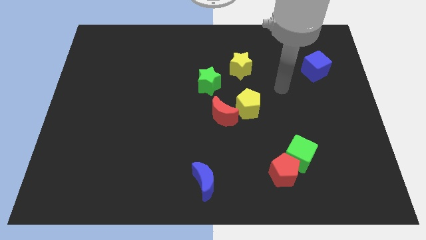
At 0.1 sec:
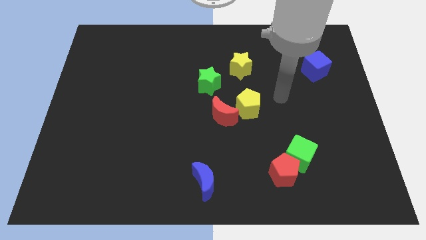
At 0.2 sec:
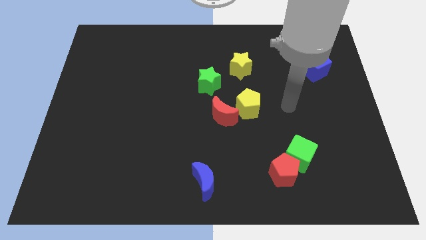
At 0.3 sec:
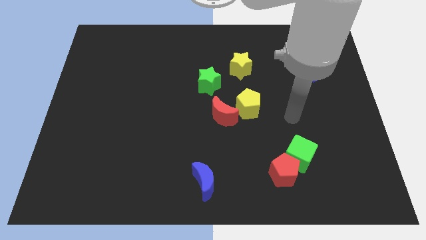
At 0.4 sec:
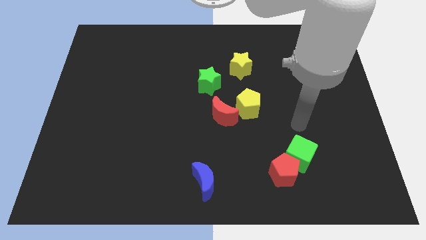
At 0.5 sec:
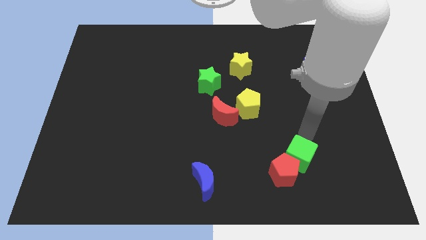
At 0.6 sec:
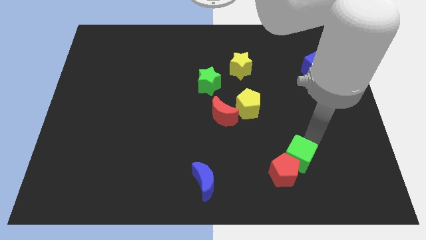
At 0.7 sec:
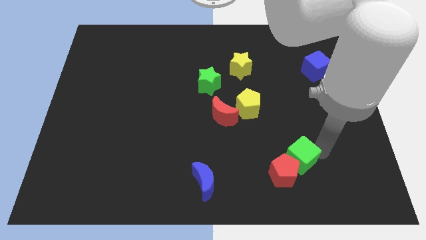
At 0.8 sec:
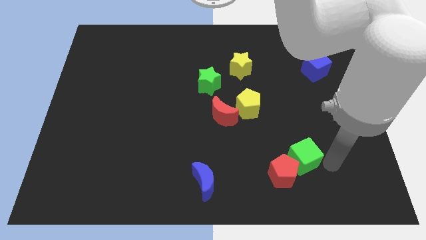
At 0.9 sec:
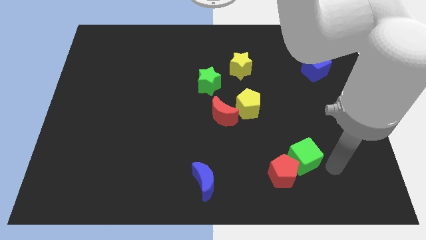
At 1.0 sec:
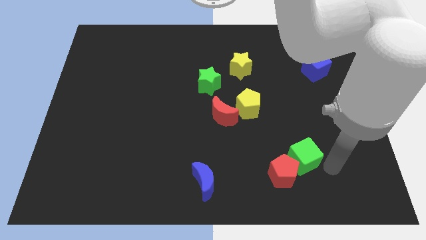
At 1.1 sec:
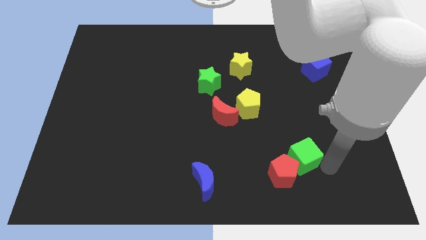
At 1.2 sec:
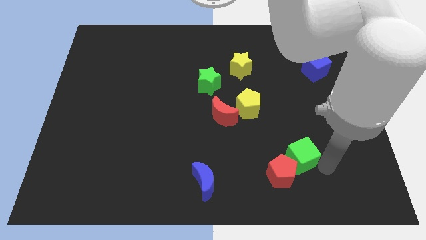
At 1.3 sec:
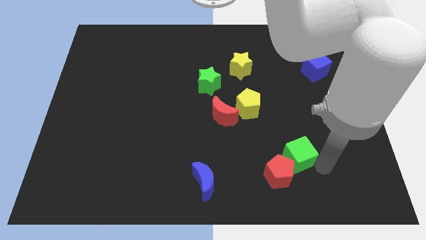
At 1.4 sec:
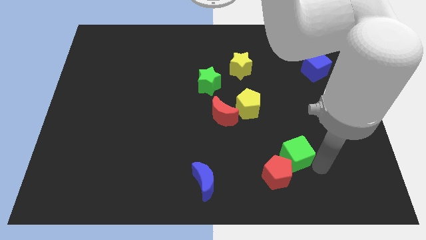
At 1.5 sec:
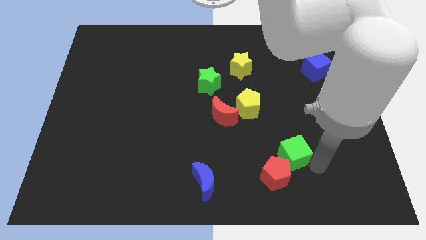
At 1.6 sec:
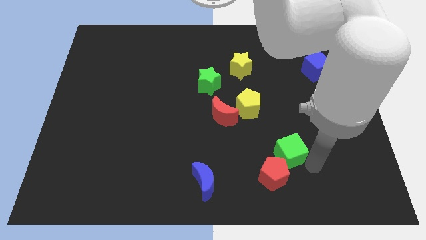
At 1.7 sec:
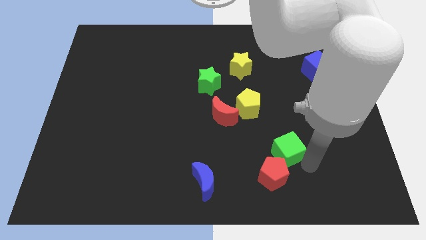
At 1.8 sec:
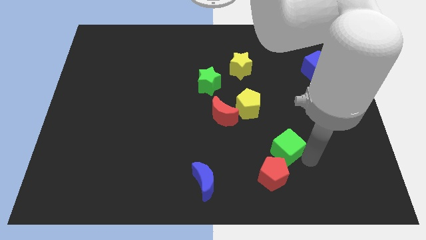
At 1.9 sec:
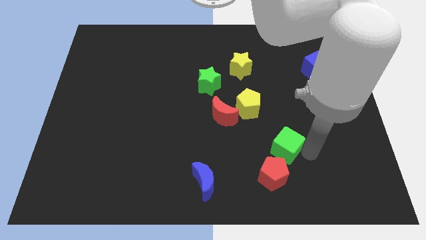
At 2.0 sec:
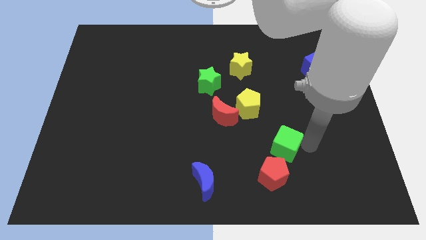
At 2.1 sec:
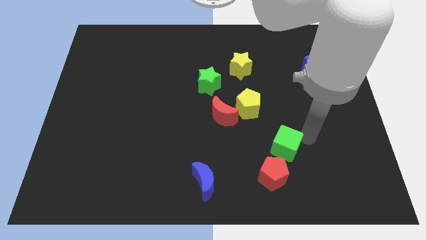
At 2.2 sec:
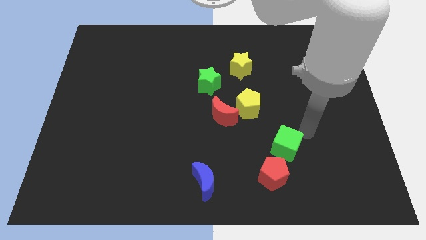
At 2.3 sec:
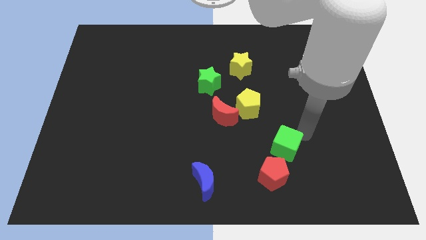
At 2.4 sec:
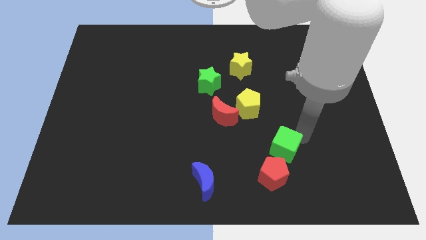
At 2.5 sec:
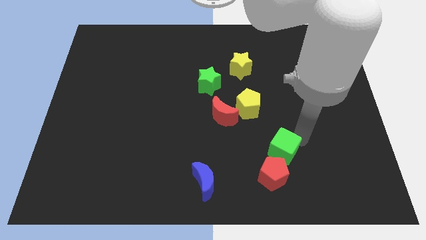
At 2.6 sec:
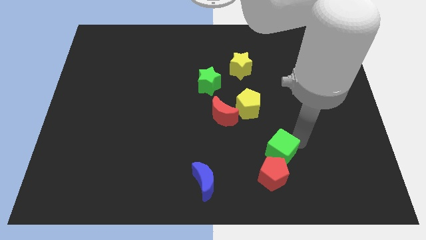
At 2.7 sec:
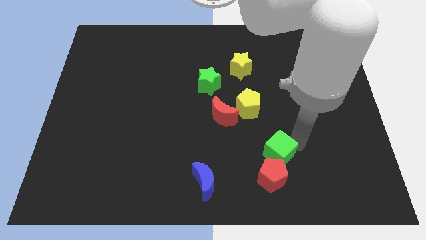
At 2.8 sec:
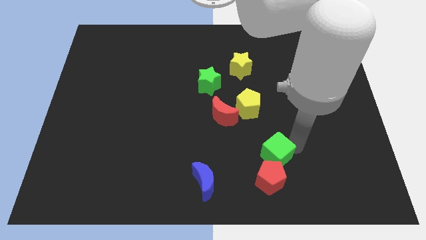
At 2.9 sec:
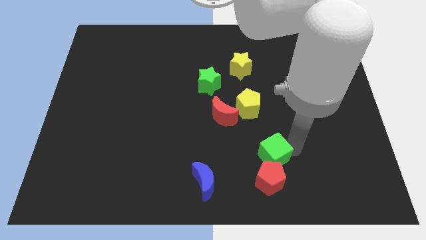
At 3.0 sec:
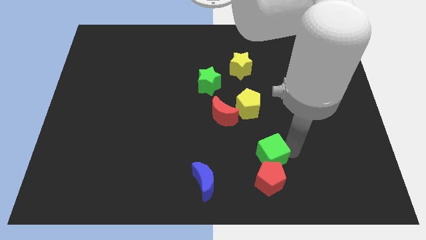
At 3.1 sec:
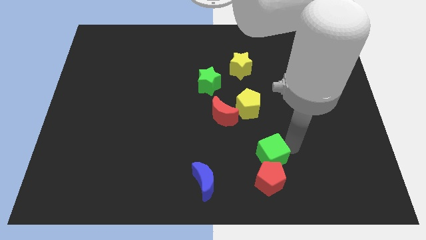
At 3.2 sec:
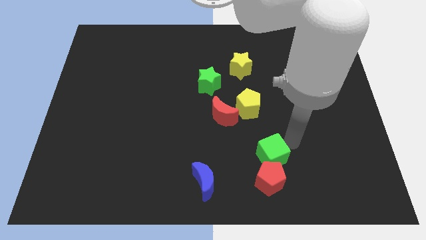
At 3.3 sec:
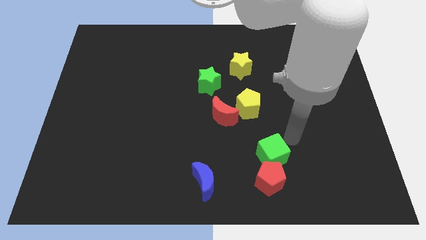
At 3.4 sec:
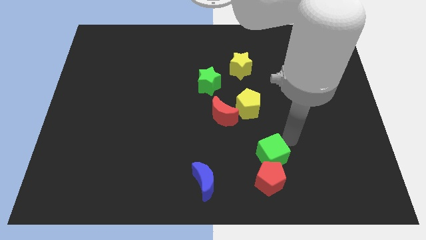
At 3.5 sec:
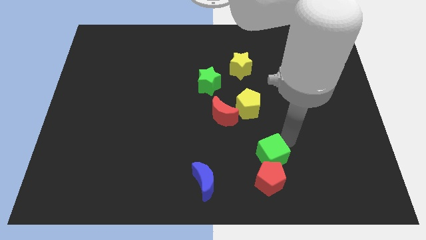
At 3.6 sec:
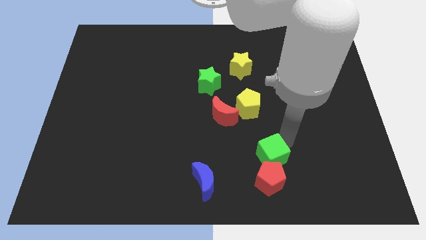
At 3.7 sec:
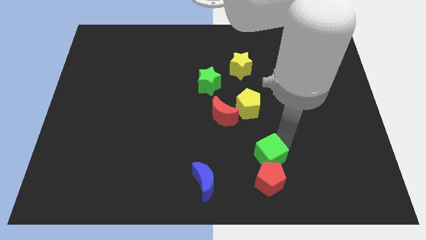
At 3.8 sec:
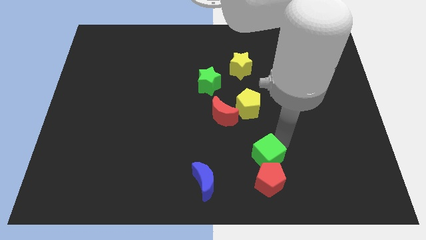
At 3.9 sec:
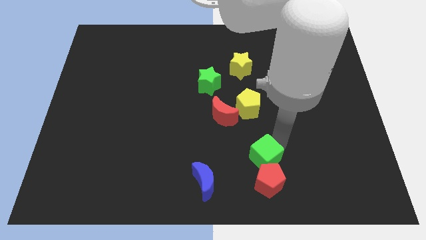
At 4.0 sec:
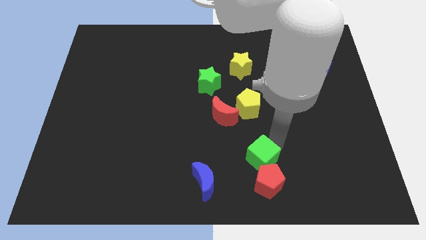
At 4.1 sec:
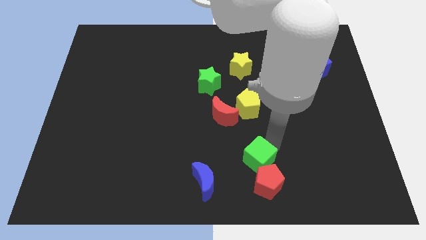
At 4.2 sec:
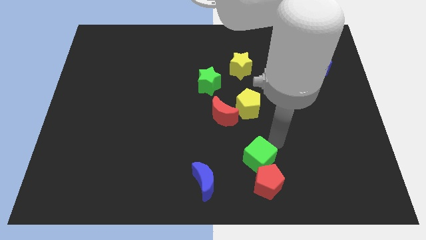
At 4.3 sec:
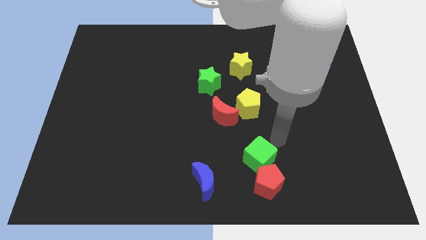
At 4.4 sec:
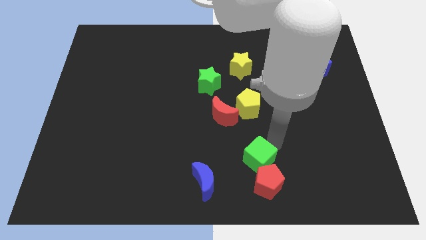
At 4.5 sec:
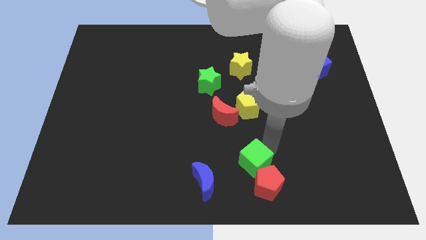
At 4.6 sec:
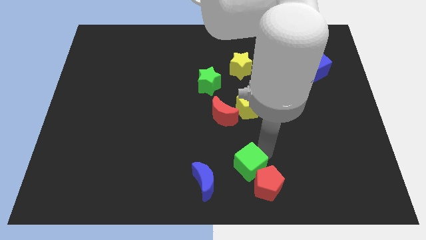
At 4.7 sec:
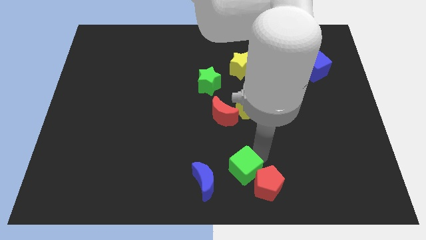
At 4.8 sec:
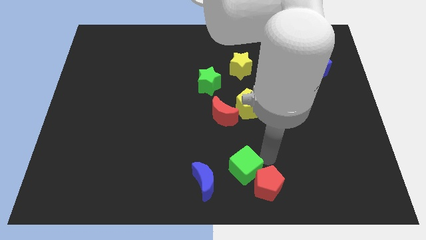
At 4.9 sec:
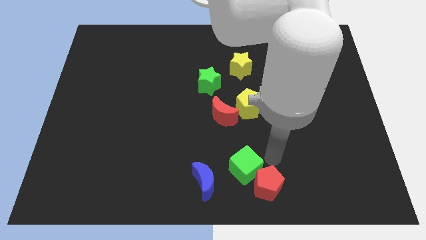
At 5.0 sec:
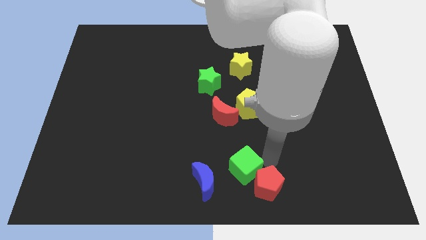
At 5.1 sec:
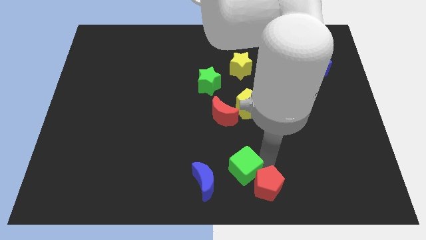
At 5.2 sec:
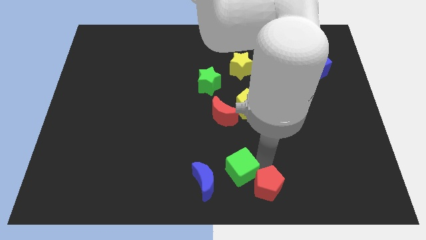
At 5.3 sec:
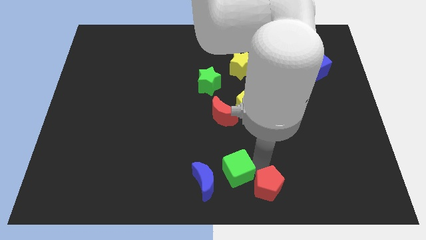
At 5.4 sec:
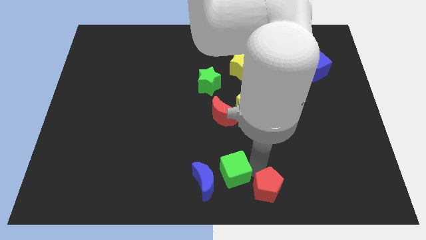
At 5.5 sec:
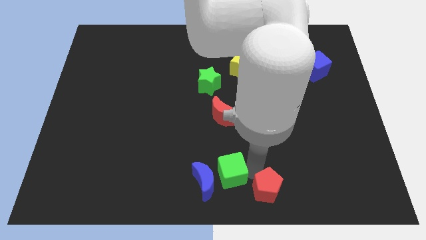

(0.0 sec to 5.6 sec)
slide the green cube towards the blue moon

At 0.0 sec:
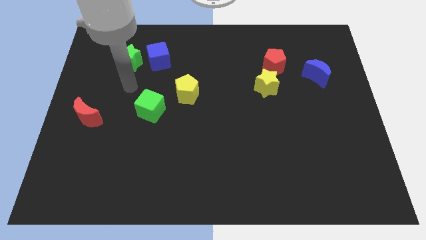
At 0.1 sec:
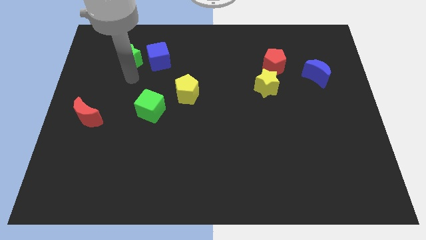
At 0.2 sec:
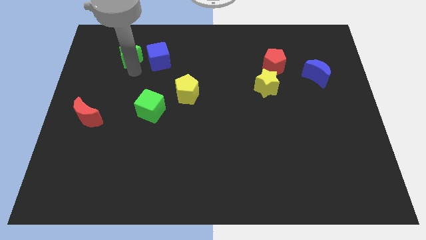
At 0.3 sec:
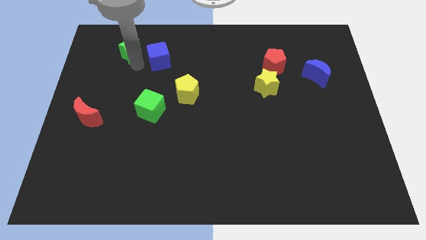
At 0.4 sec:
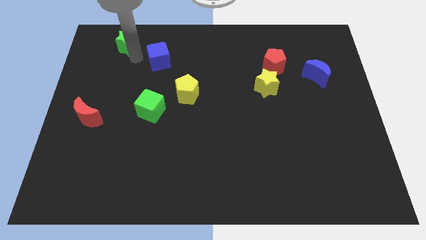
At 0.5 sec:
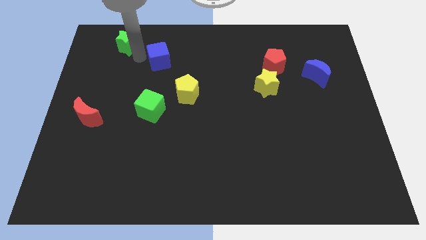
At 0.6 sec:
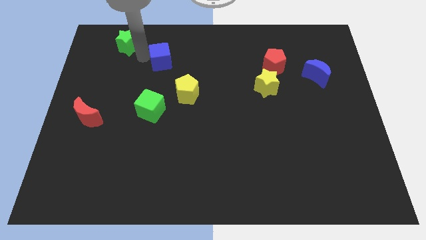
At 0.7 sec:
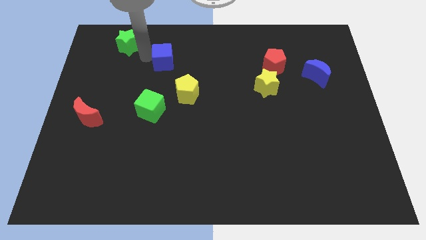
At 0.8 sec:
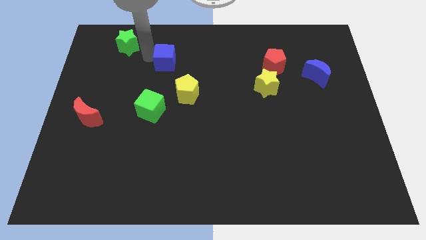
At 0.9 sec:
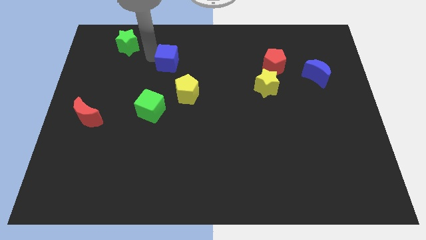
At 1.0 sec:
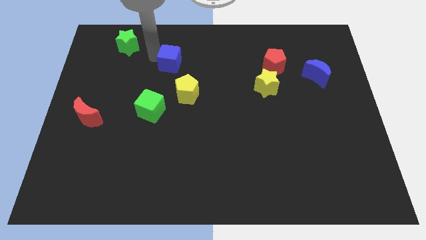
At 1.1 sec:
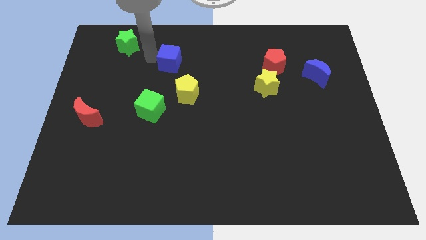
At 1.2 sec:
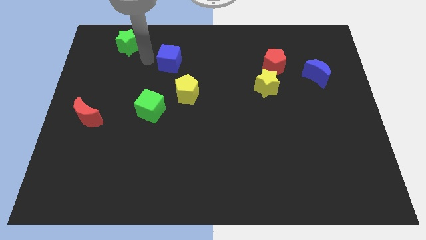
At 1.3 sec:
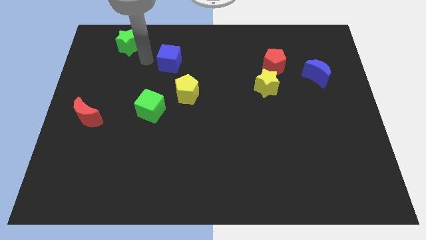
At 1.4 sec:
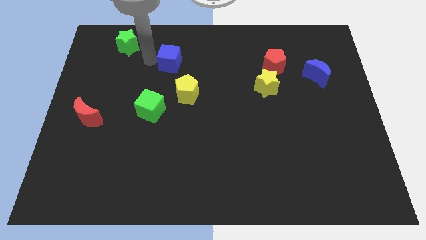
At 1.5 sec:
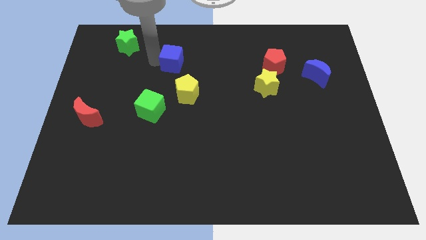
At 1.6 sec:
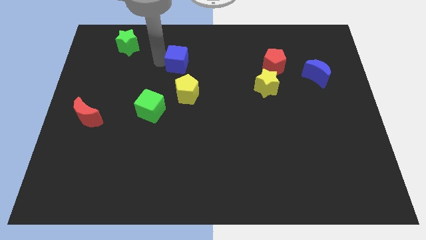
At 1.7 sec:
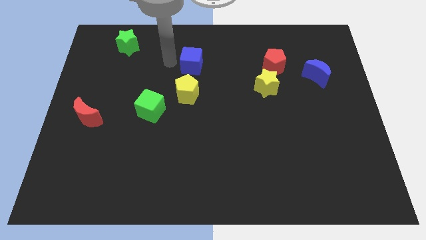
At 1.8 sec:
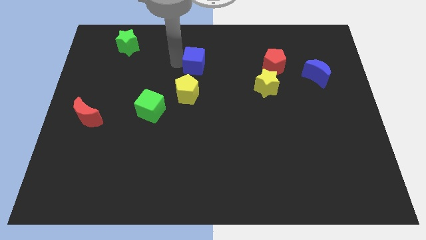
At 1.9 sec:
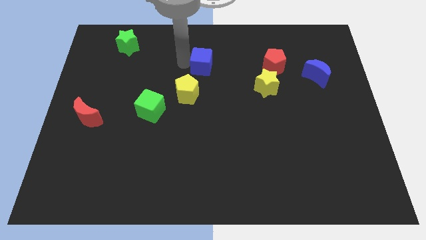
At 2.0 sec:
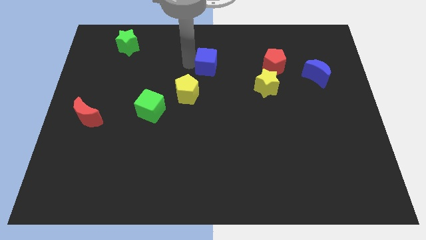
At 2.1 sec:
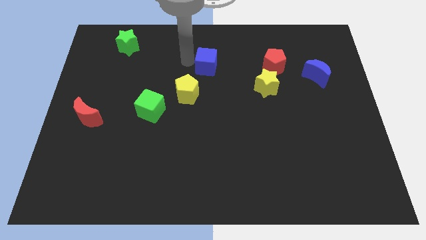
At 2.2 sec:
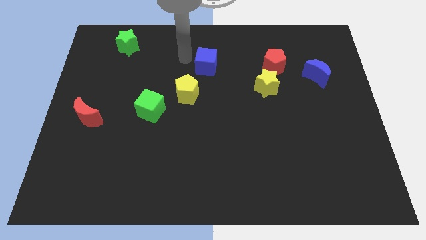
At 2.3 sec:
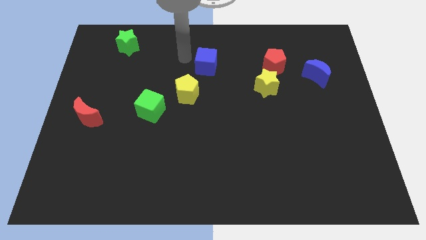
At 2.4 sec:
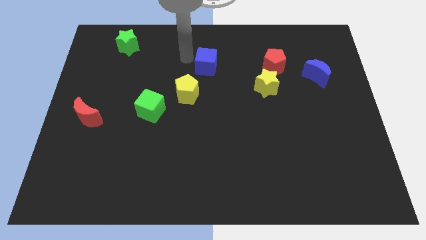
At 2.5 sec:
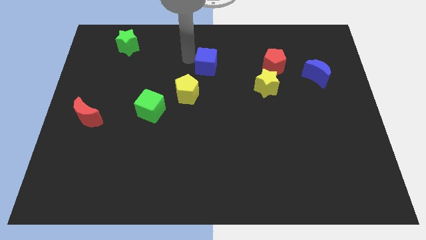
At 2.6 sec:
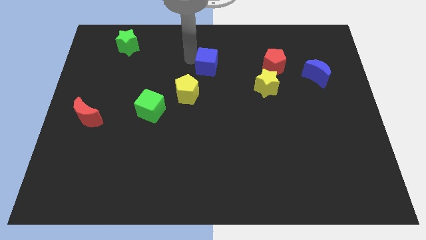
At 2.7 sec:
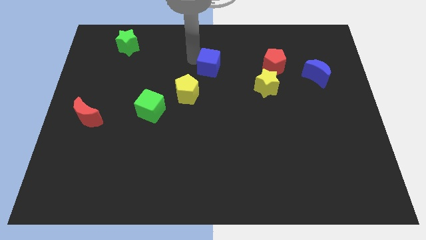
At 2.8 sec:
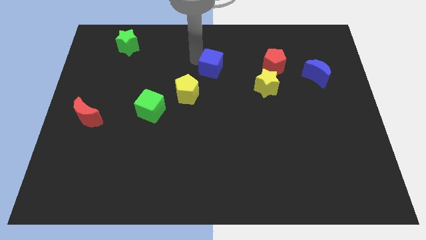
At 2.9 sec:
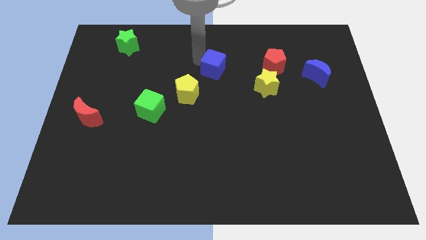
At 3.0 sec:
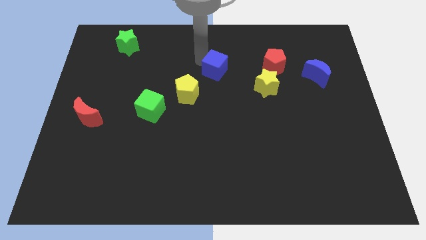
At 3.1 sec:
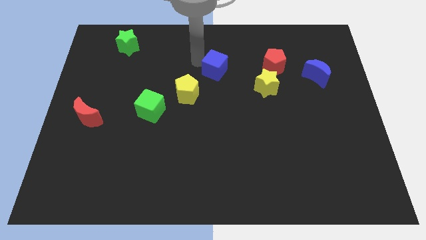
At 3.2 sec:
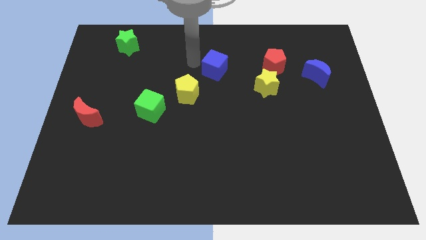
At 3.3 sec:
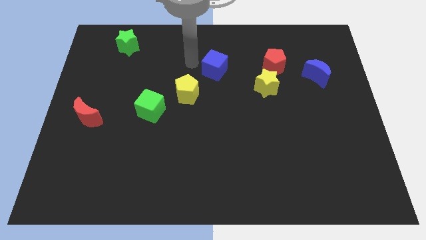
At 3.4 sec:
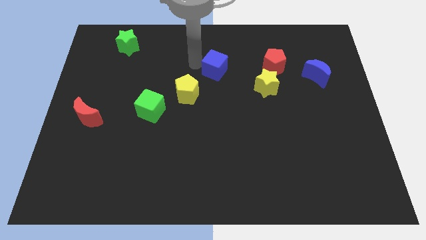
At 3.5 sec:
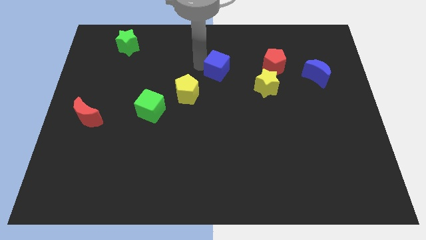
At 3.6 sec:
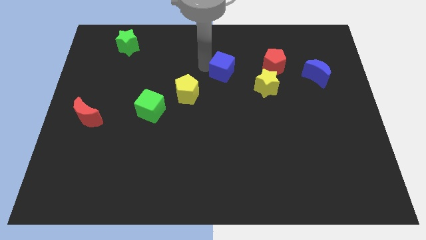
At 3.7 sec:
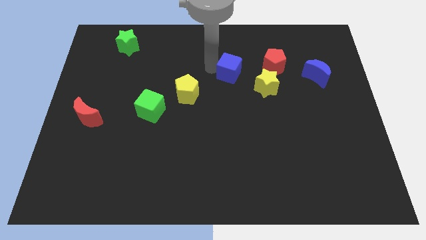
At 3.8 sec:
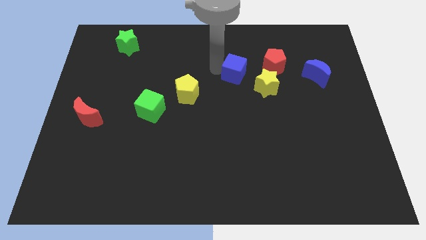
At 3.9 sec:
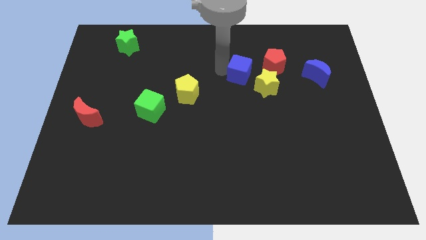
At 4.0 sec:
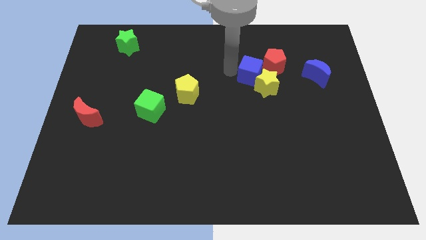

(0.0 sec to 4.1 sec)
push the blue cube towards the yellow star
